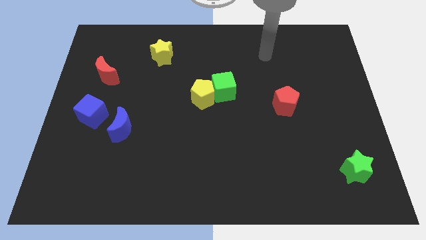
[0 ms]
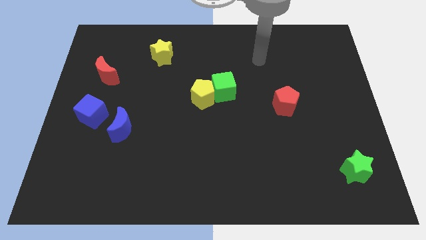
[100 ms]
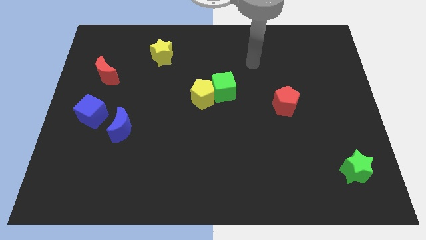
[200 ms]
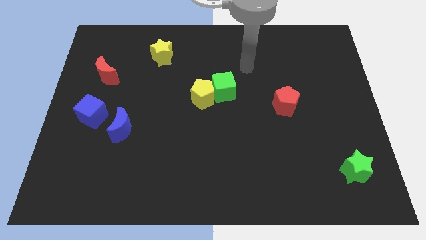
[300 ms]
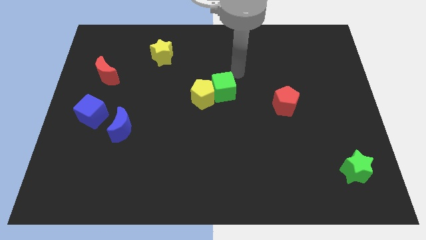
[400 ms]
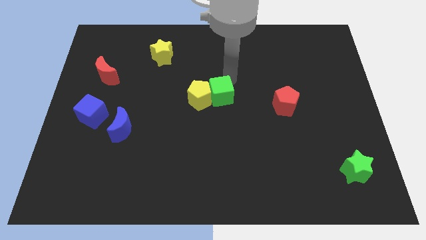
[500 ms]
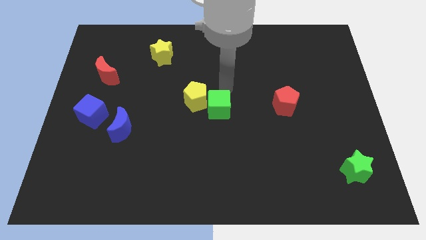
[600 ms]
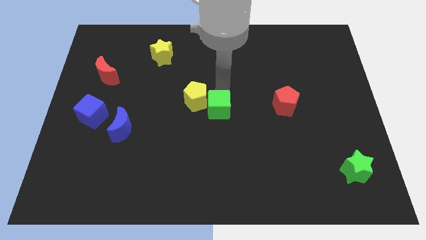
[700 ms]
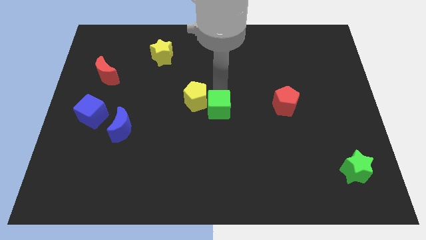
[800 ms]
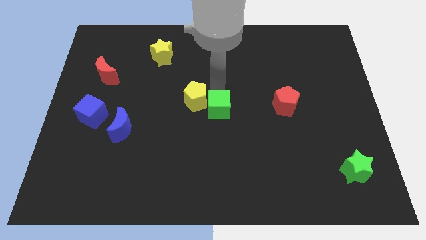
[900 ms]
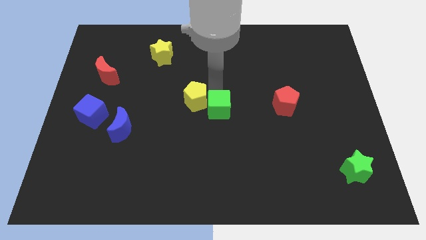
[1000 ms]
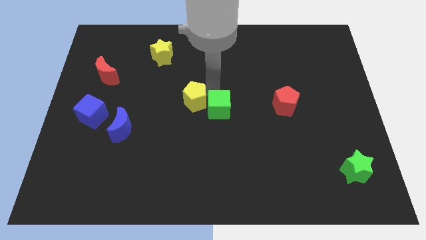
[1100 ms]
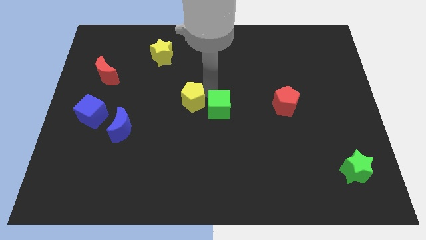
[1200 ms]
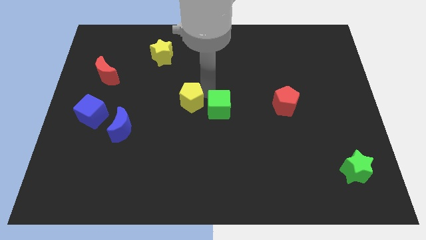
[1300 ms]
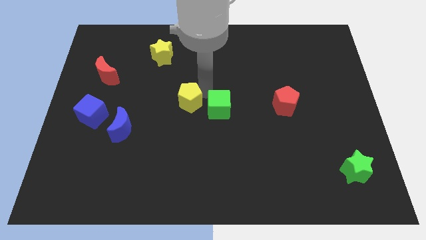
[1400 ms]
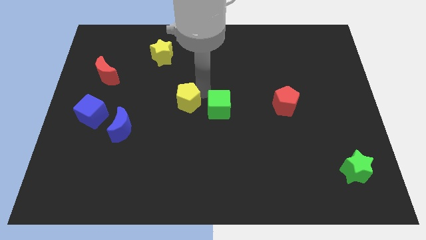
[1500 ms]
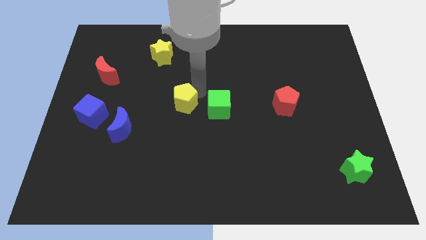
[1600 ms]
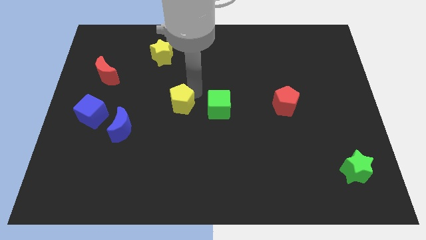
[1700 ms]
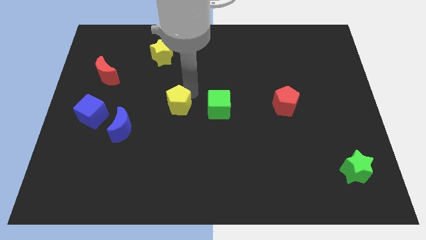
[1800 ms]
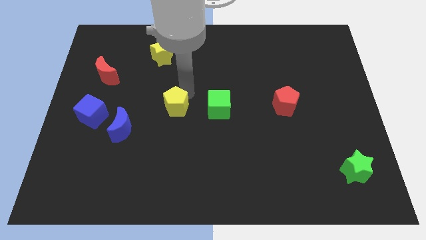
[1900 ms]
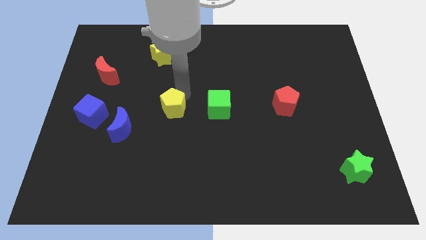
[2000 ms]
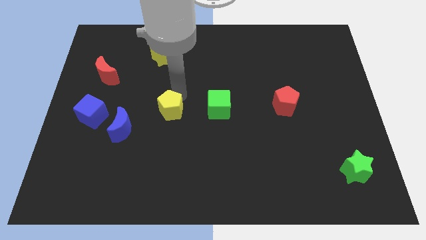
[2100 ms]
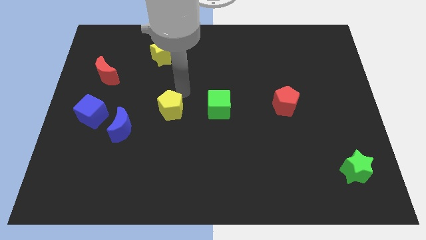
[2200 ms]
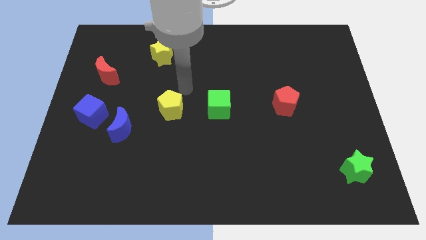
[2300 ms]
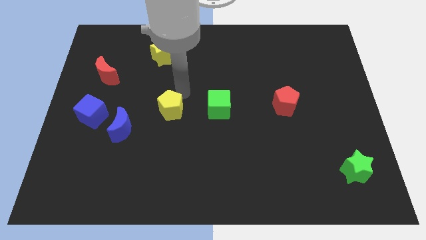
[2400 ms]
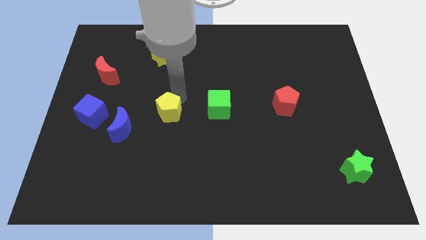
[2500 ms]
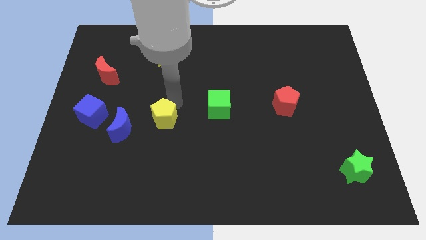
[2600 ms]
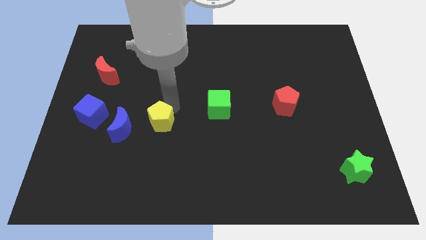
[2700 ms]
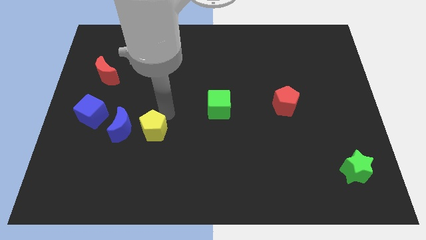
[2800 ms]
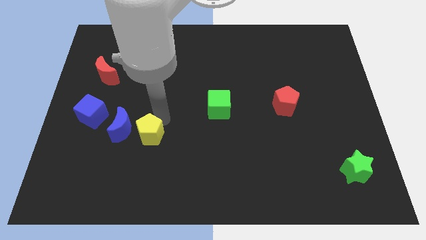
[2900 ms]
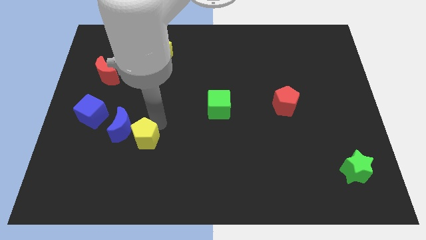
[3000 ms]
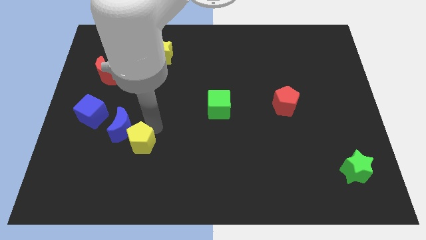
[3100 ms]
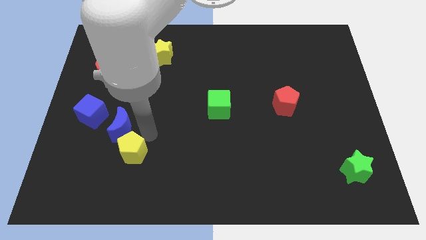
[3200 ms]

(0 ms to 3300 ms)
slide the yellow pentagon downwards and then to the left

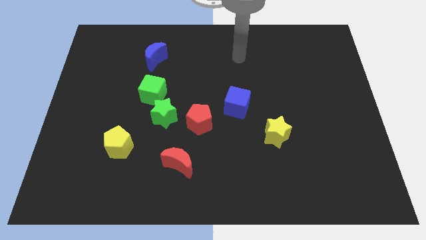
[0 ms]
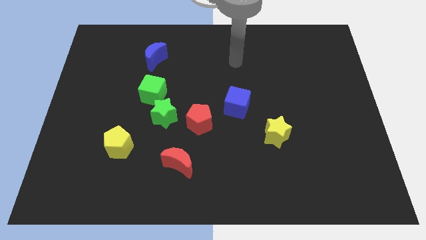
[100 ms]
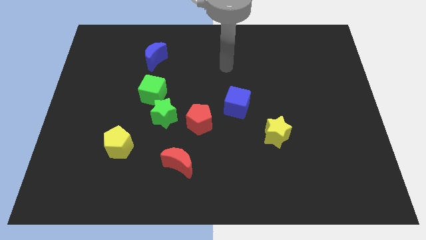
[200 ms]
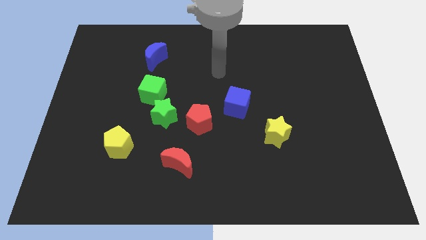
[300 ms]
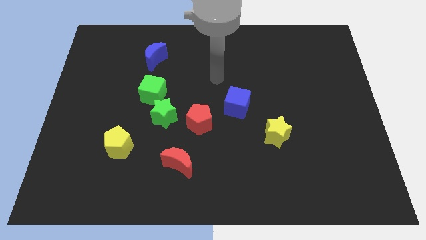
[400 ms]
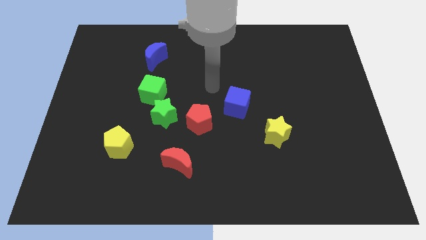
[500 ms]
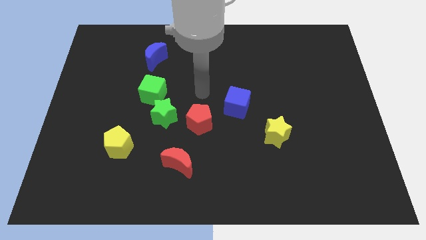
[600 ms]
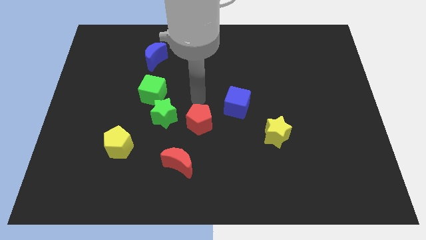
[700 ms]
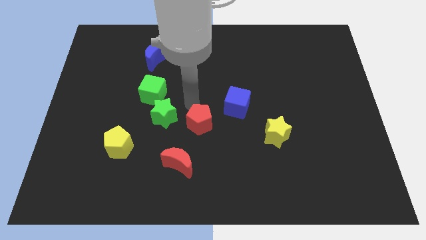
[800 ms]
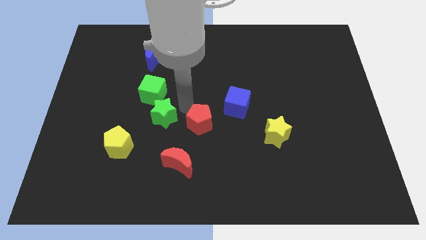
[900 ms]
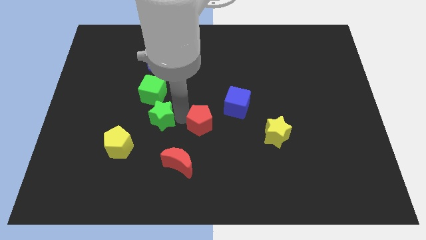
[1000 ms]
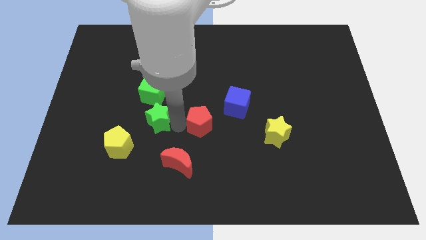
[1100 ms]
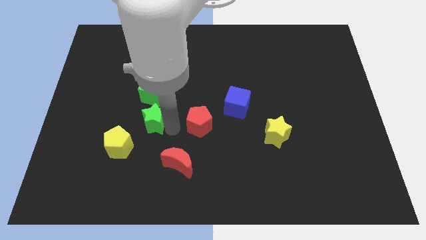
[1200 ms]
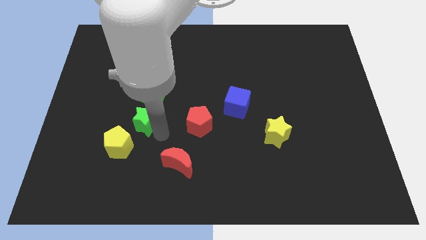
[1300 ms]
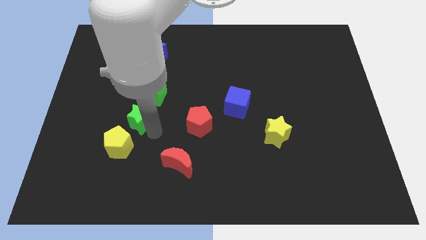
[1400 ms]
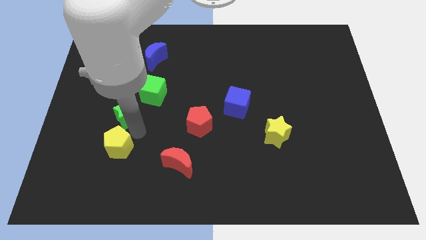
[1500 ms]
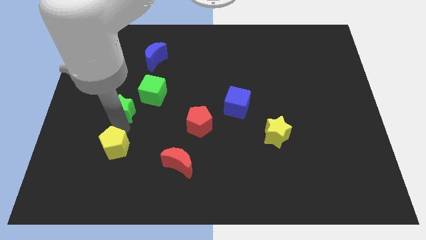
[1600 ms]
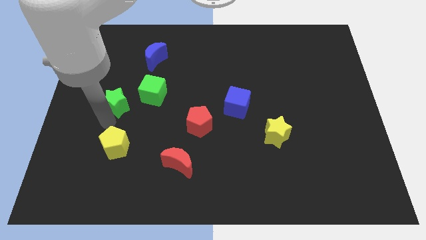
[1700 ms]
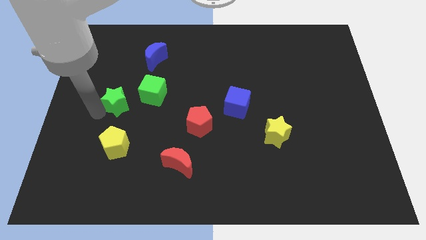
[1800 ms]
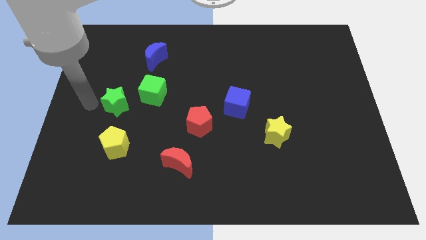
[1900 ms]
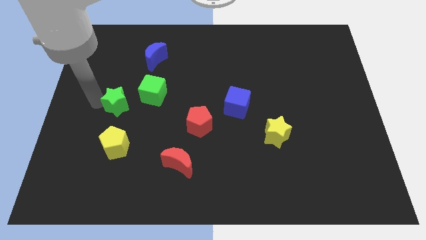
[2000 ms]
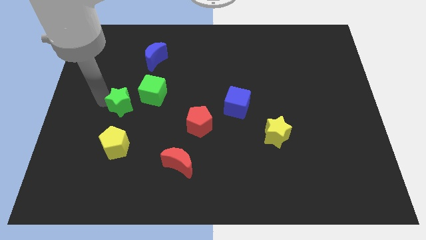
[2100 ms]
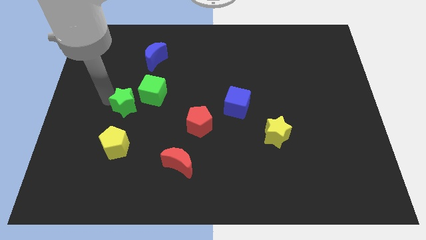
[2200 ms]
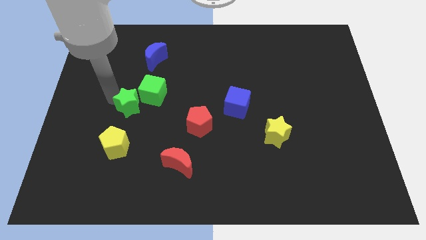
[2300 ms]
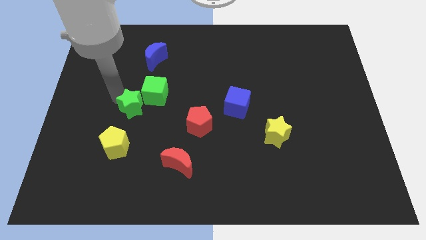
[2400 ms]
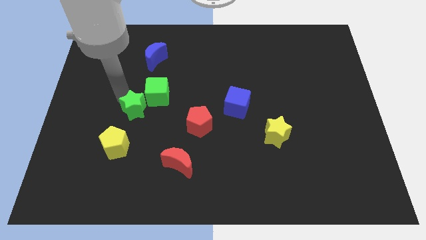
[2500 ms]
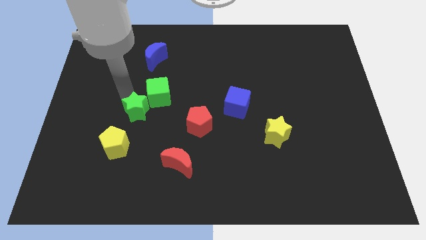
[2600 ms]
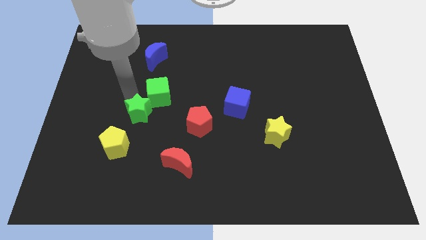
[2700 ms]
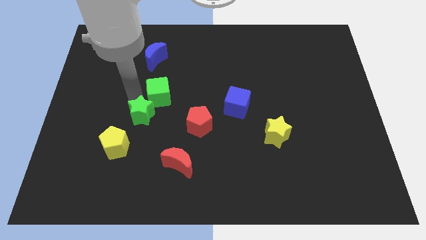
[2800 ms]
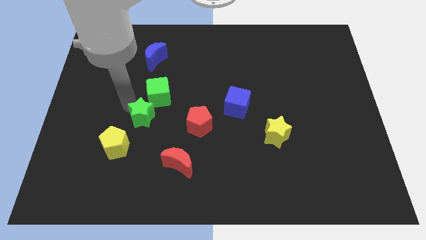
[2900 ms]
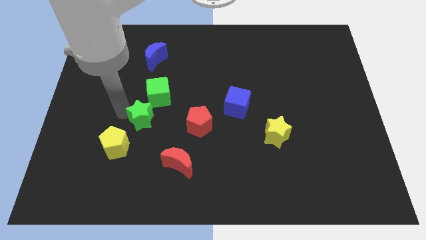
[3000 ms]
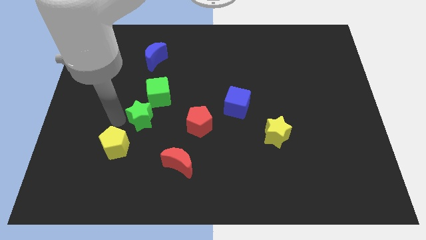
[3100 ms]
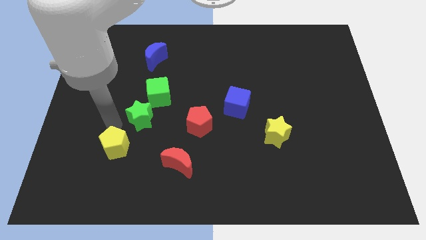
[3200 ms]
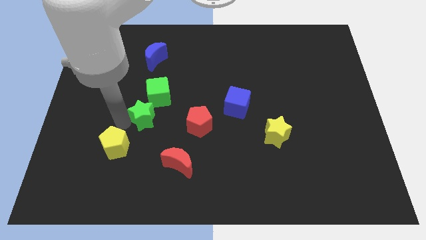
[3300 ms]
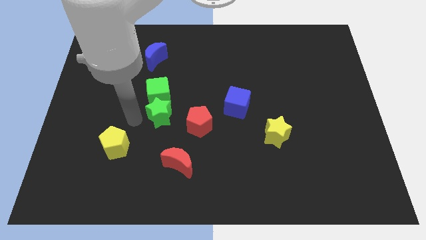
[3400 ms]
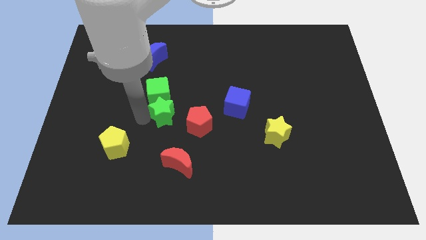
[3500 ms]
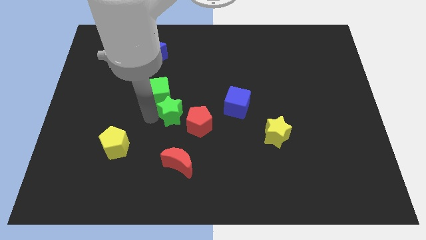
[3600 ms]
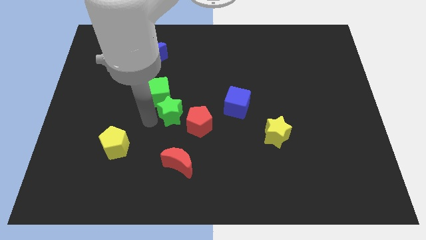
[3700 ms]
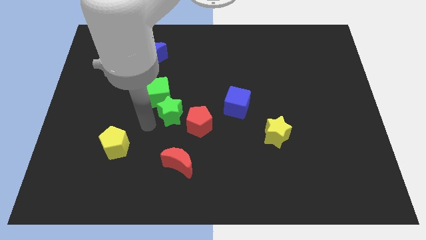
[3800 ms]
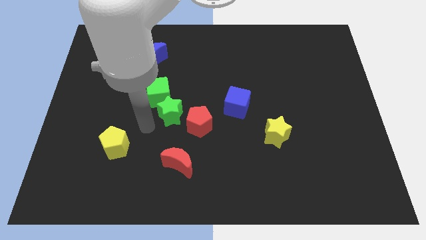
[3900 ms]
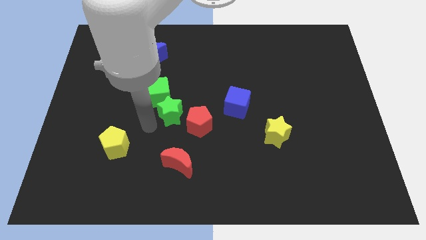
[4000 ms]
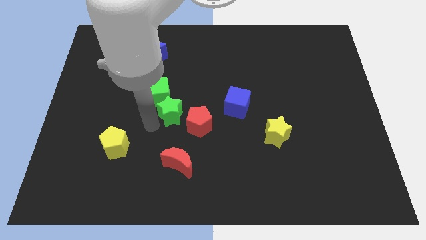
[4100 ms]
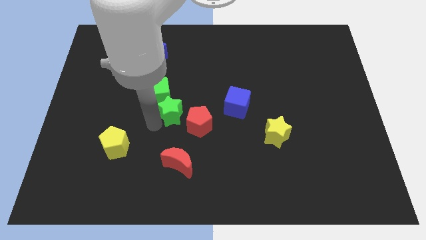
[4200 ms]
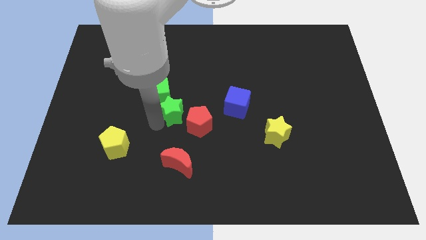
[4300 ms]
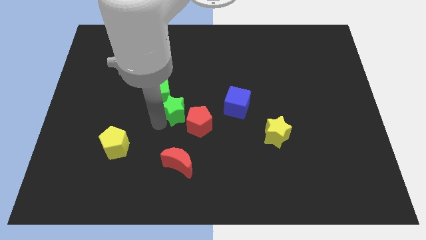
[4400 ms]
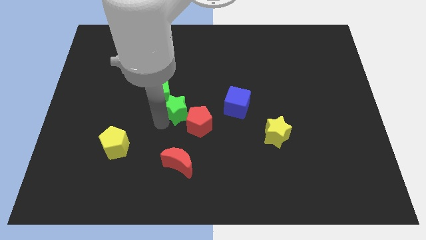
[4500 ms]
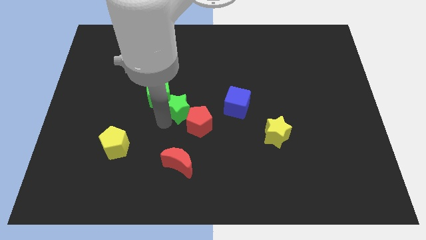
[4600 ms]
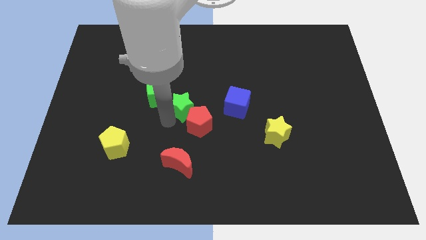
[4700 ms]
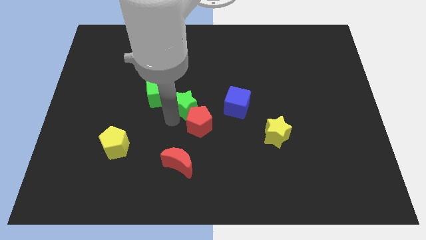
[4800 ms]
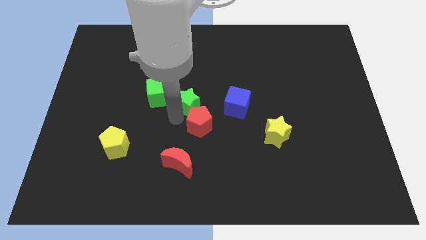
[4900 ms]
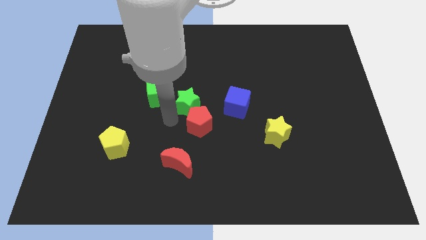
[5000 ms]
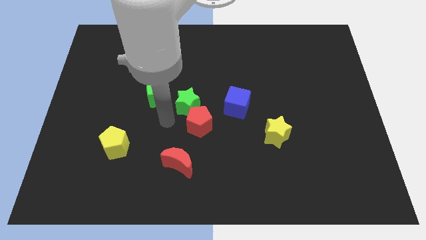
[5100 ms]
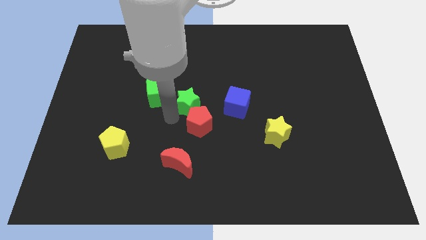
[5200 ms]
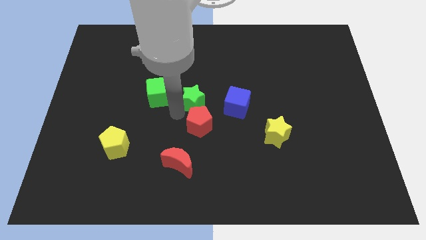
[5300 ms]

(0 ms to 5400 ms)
move the green star up and to the right somewhat
